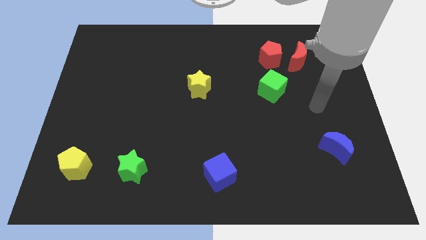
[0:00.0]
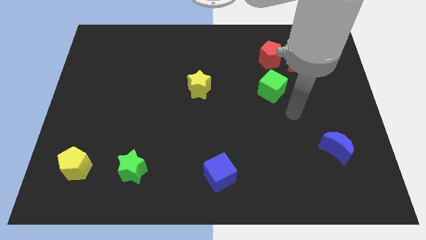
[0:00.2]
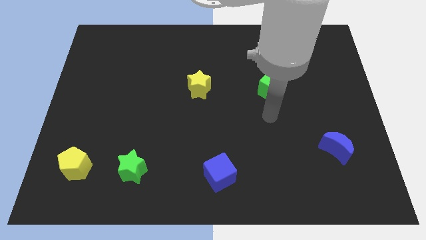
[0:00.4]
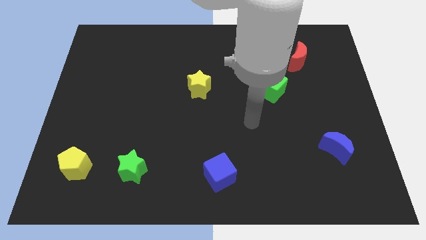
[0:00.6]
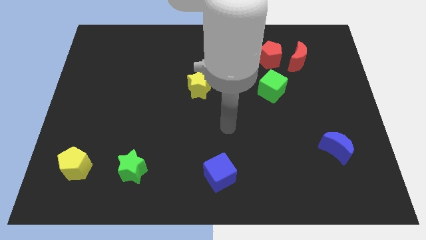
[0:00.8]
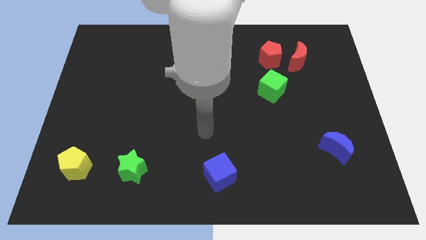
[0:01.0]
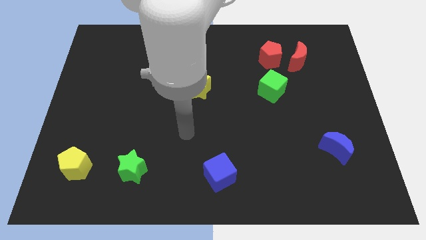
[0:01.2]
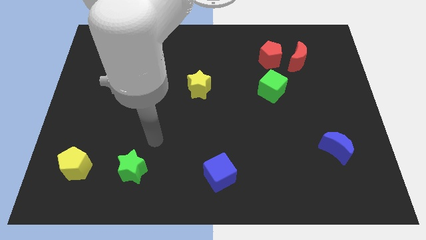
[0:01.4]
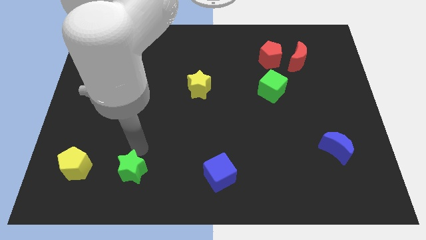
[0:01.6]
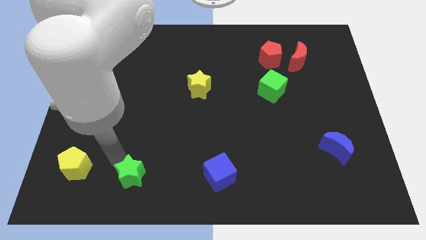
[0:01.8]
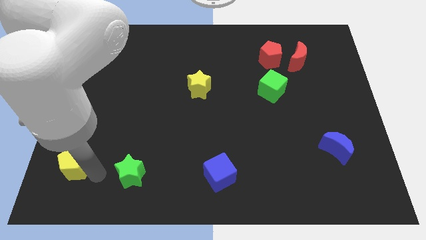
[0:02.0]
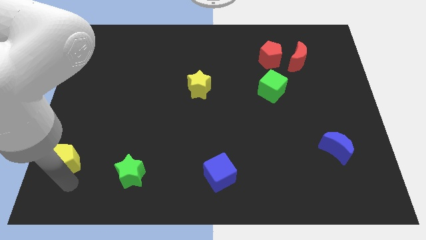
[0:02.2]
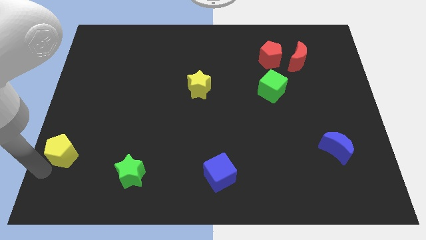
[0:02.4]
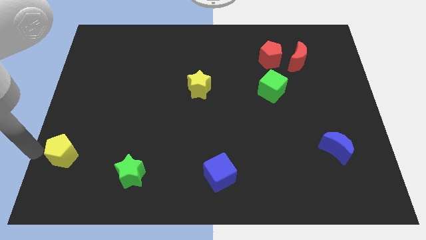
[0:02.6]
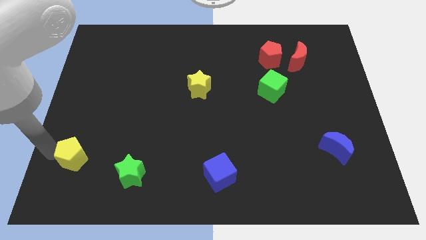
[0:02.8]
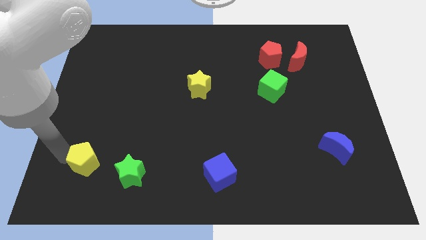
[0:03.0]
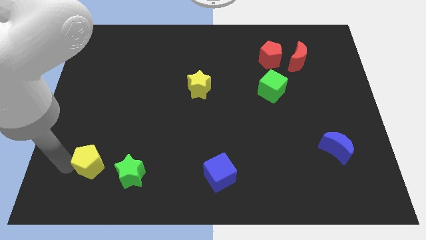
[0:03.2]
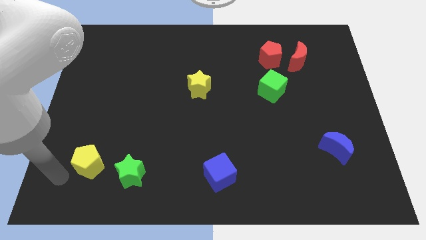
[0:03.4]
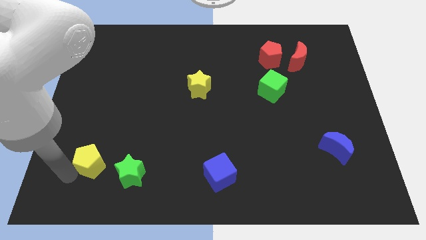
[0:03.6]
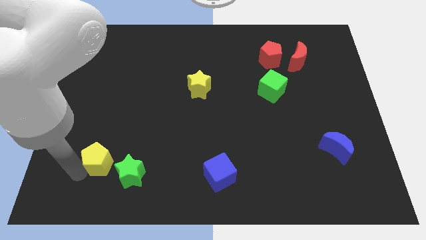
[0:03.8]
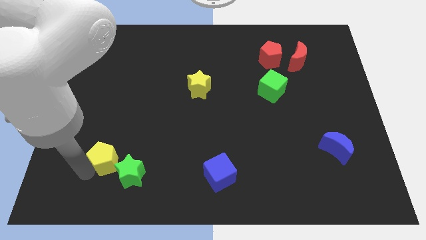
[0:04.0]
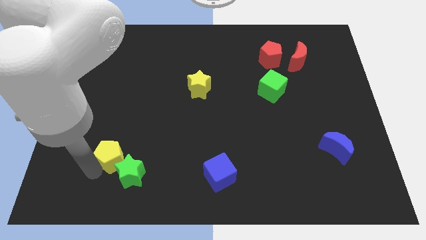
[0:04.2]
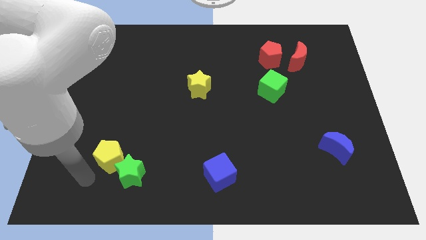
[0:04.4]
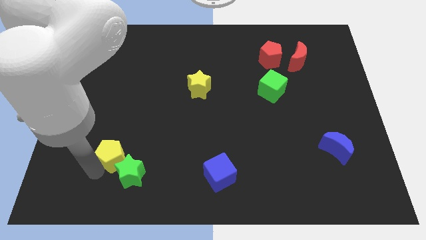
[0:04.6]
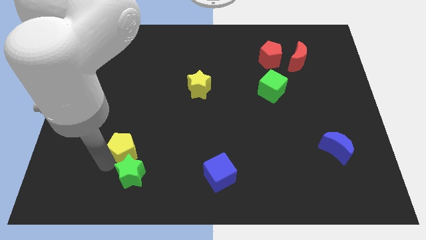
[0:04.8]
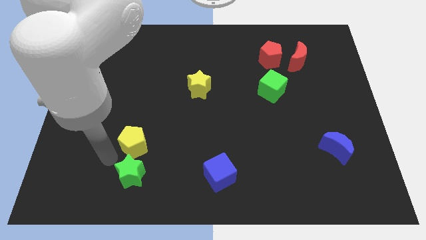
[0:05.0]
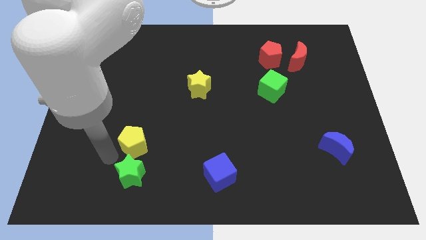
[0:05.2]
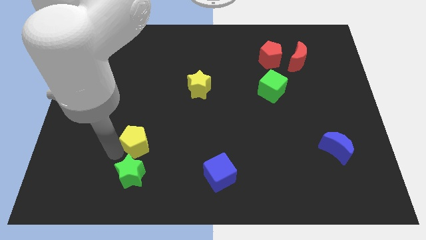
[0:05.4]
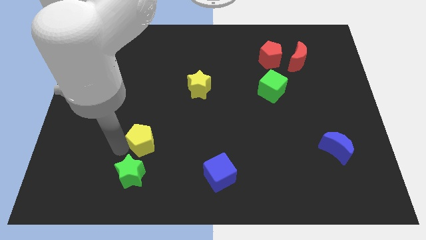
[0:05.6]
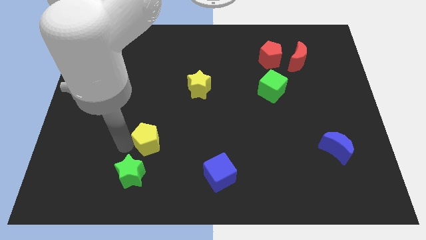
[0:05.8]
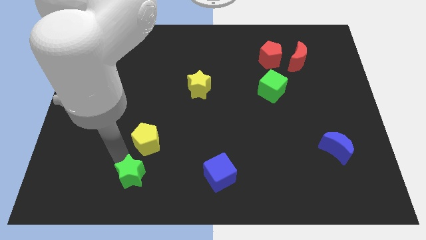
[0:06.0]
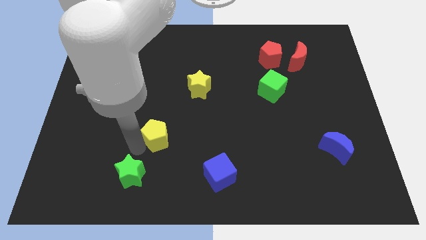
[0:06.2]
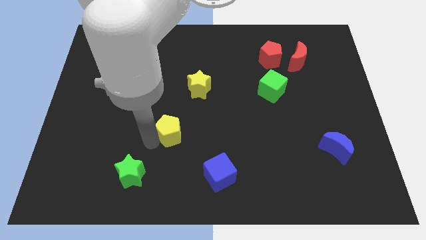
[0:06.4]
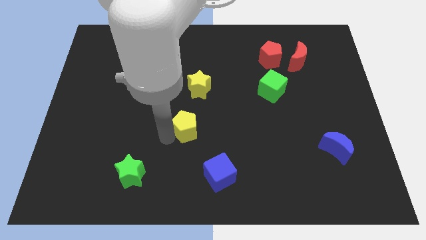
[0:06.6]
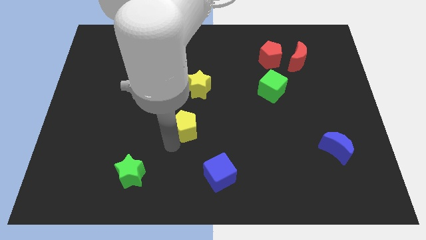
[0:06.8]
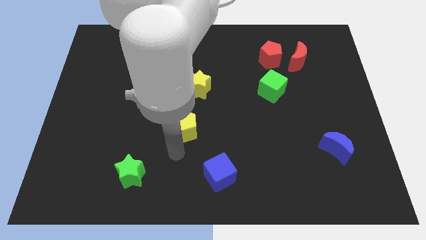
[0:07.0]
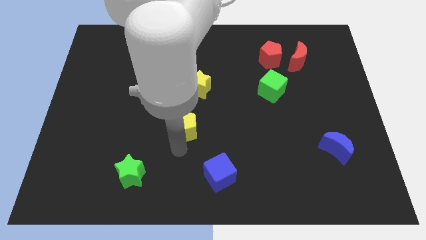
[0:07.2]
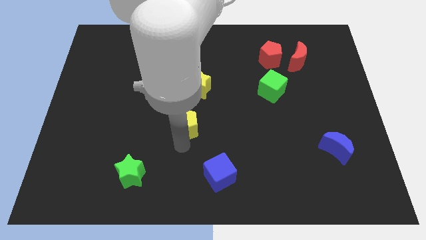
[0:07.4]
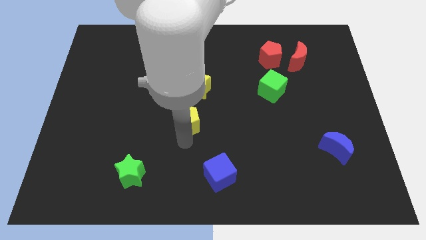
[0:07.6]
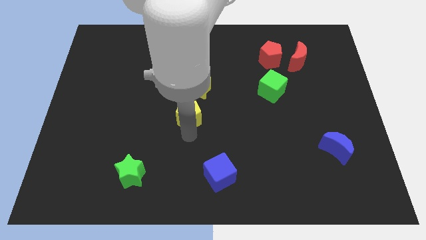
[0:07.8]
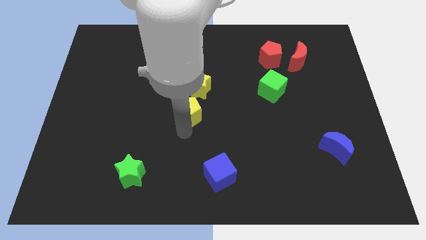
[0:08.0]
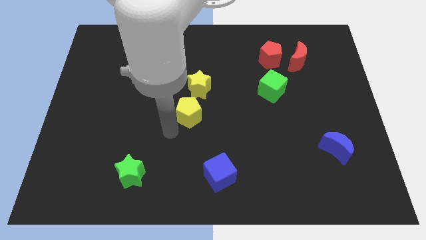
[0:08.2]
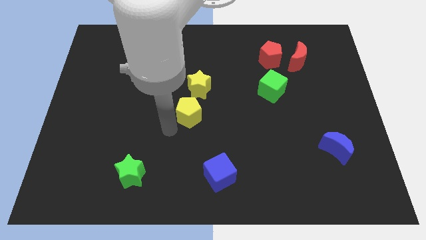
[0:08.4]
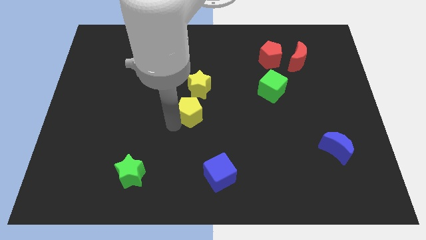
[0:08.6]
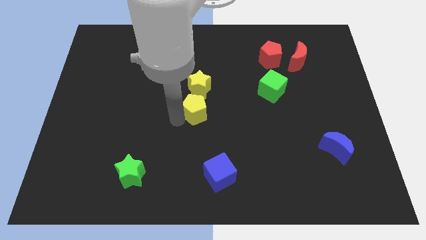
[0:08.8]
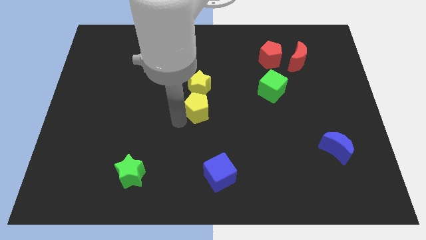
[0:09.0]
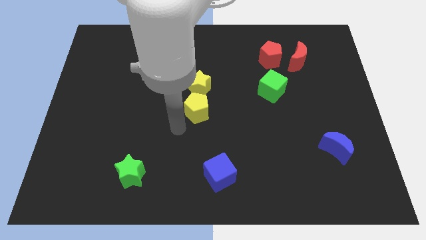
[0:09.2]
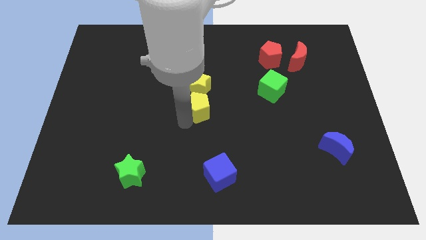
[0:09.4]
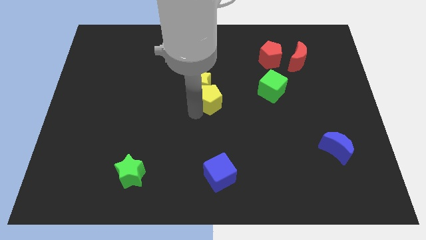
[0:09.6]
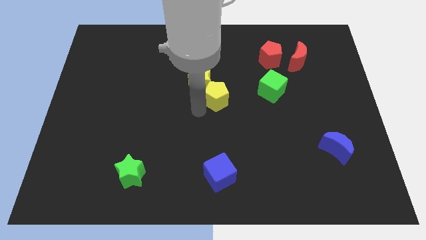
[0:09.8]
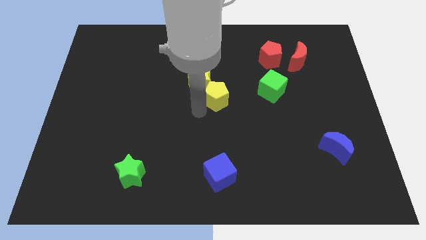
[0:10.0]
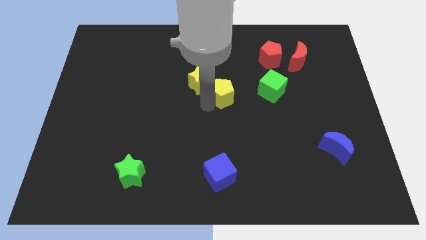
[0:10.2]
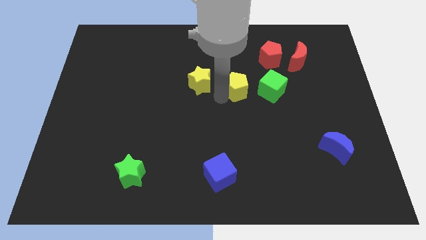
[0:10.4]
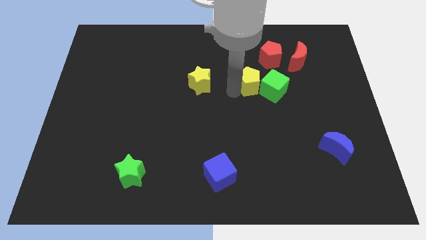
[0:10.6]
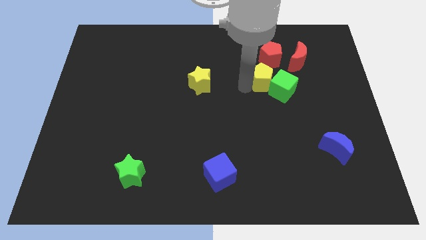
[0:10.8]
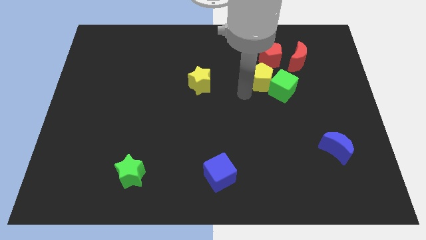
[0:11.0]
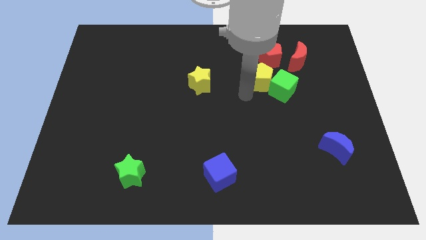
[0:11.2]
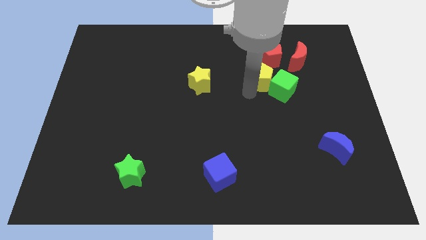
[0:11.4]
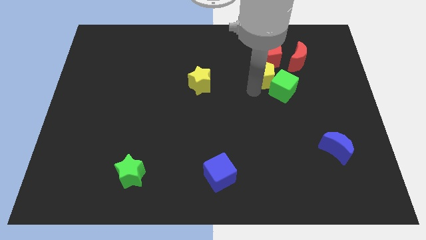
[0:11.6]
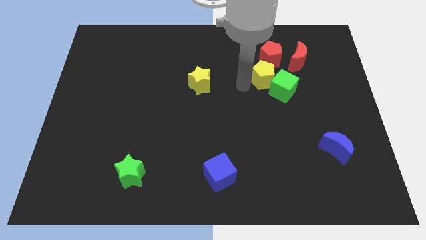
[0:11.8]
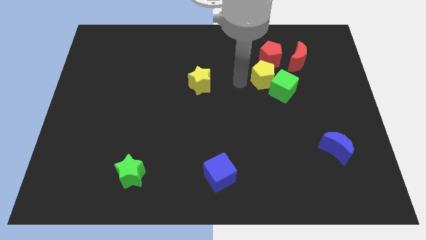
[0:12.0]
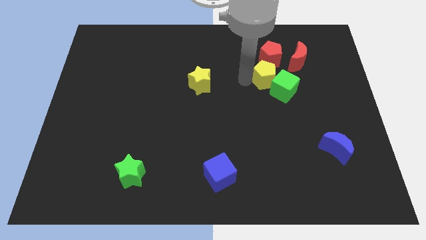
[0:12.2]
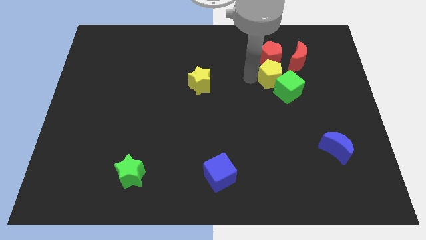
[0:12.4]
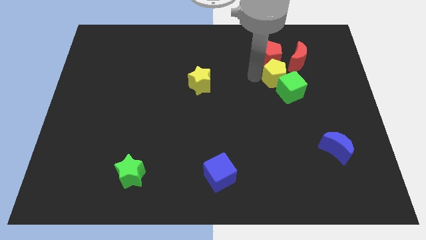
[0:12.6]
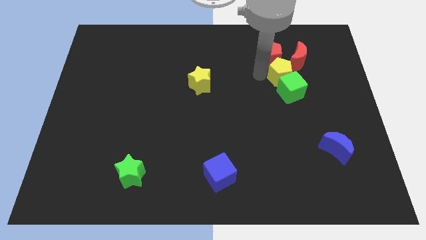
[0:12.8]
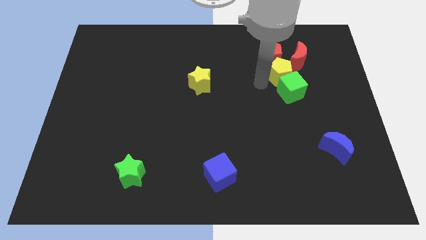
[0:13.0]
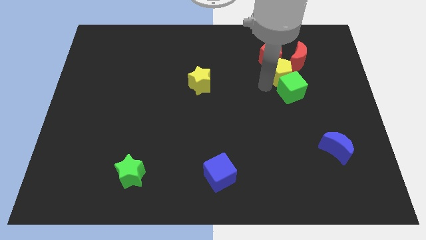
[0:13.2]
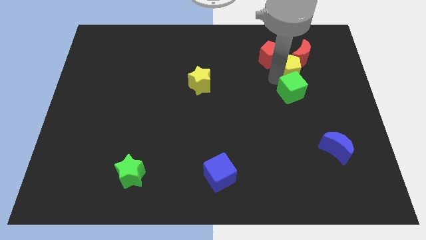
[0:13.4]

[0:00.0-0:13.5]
put the yellow pentagon to the red moon

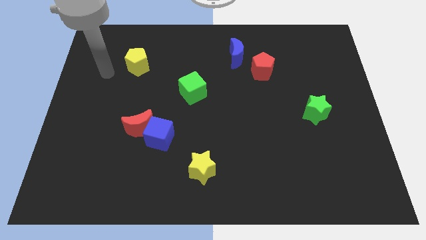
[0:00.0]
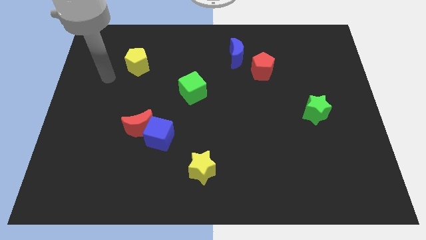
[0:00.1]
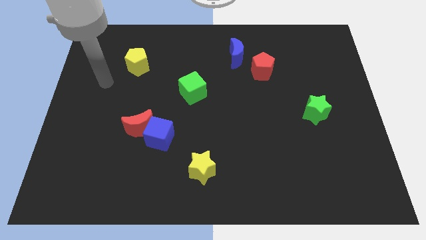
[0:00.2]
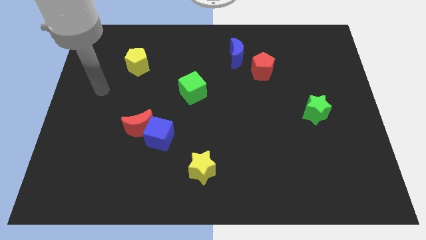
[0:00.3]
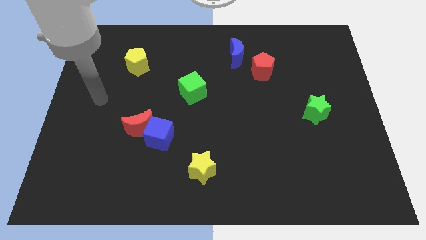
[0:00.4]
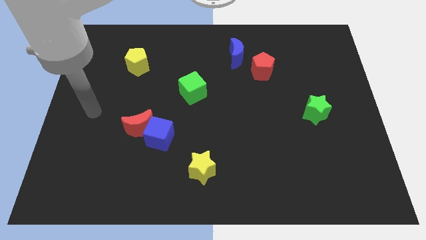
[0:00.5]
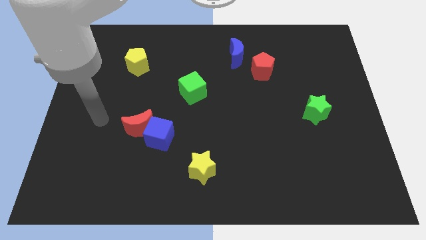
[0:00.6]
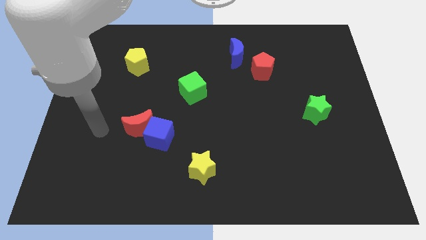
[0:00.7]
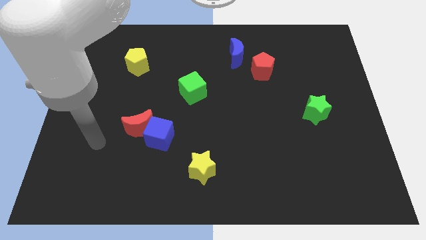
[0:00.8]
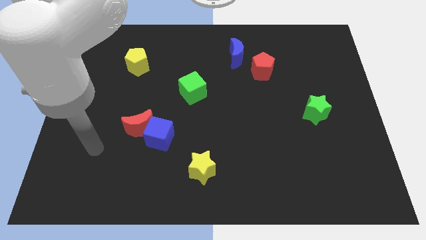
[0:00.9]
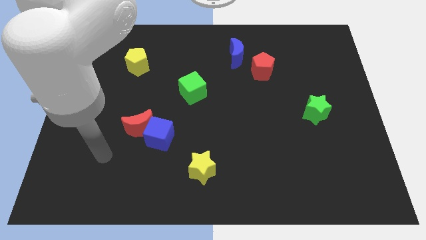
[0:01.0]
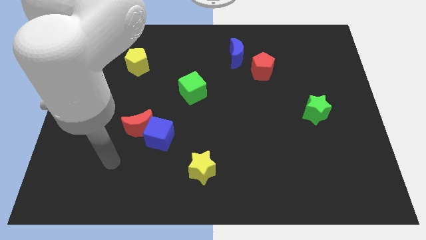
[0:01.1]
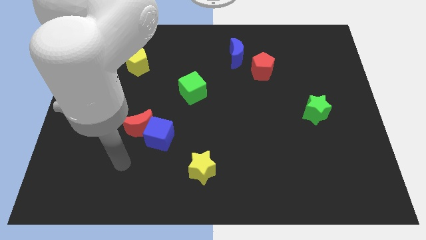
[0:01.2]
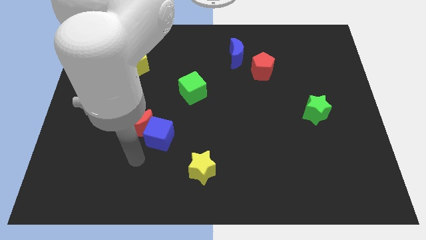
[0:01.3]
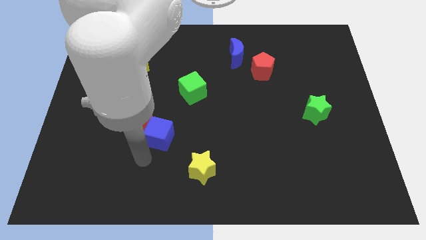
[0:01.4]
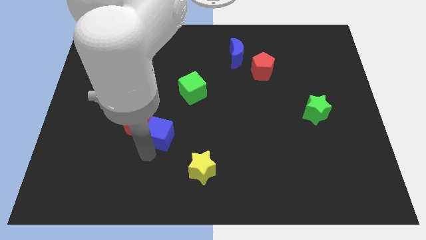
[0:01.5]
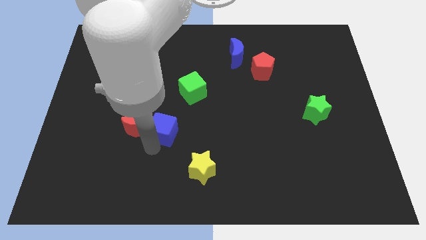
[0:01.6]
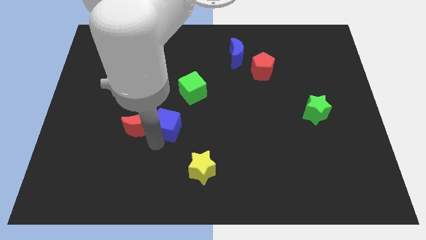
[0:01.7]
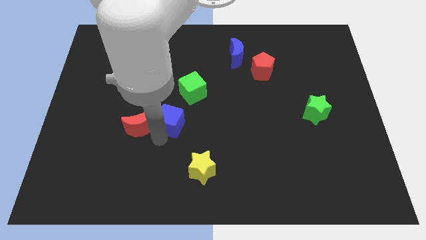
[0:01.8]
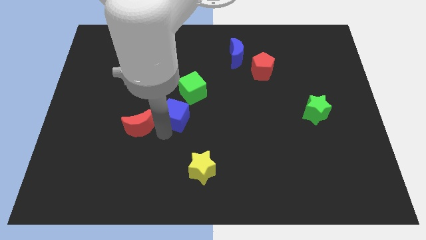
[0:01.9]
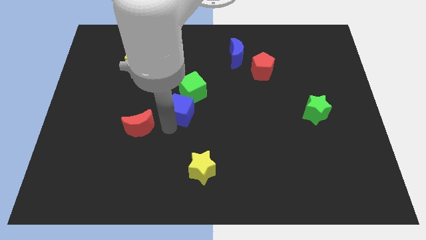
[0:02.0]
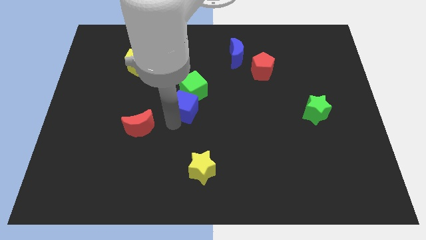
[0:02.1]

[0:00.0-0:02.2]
put the blue cube to the green cube
